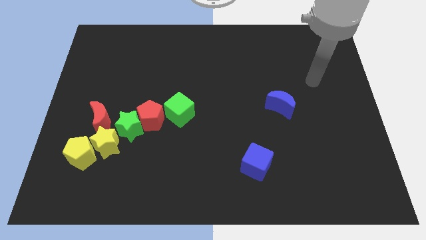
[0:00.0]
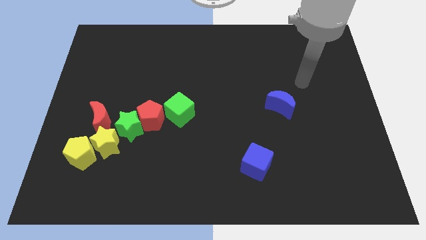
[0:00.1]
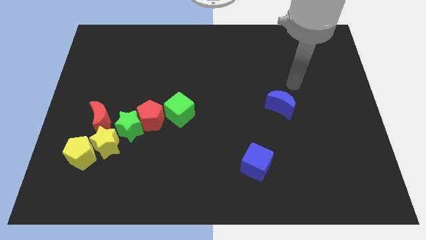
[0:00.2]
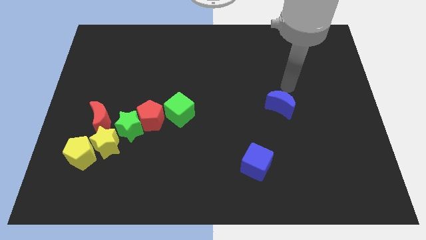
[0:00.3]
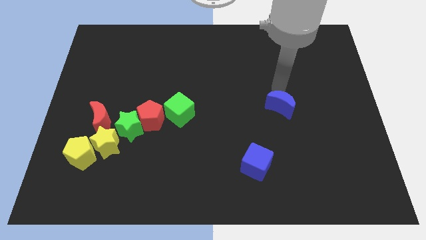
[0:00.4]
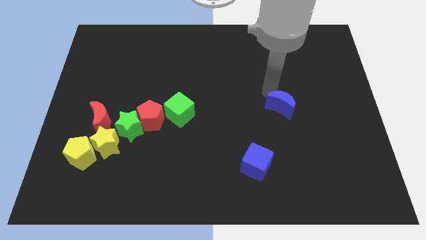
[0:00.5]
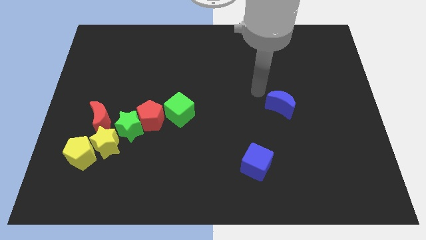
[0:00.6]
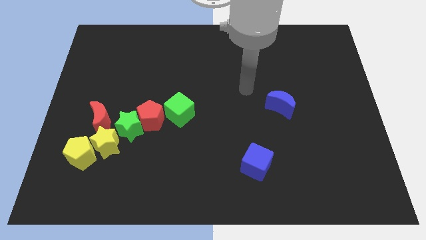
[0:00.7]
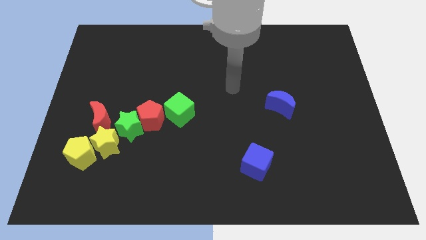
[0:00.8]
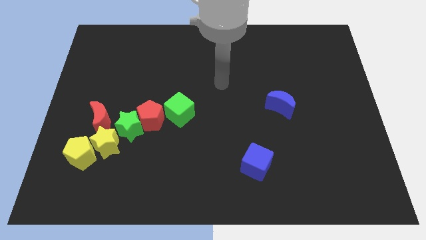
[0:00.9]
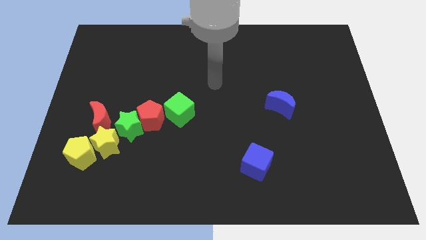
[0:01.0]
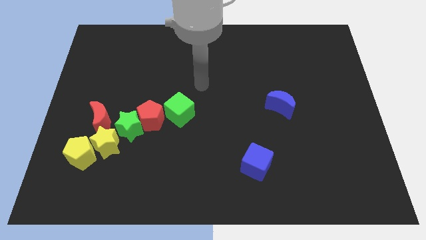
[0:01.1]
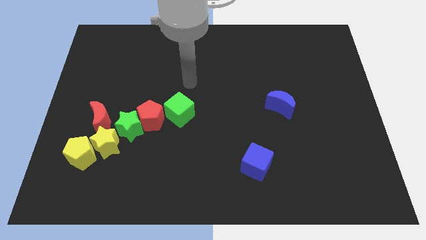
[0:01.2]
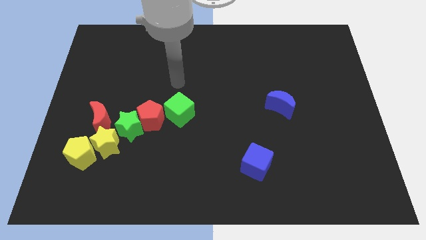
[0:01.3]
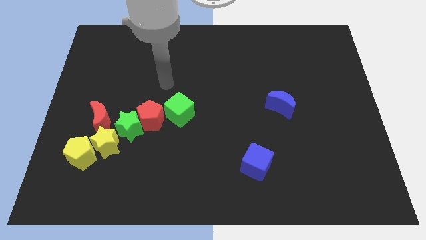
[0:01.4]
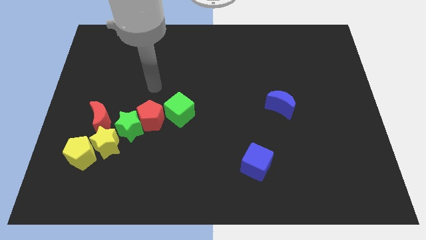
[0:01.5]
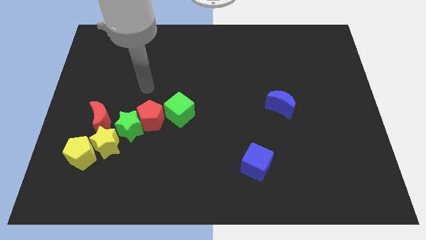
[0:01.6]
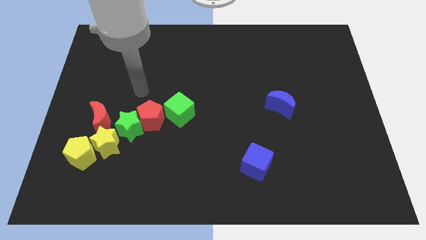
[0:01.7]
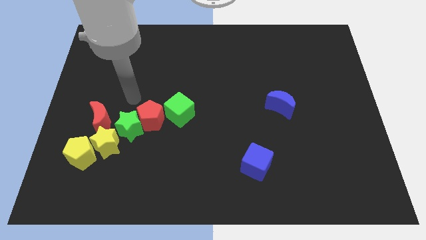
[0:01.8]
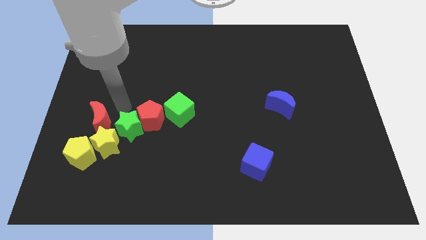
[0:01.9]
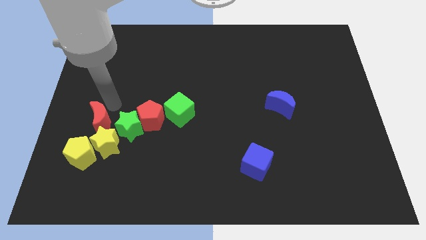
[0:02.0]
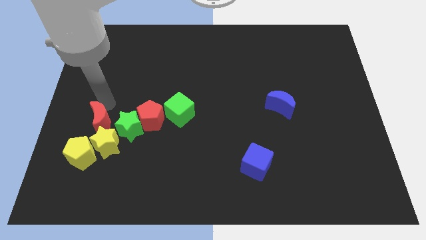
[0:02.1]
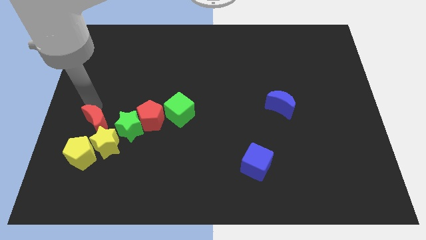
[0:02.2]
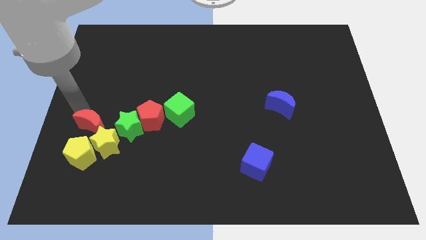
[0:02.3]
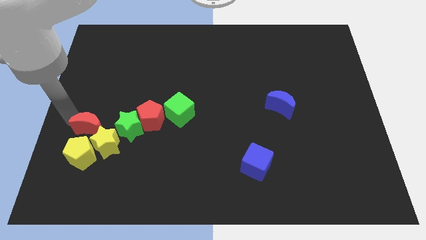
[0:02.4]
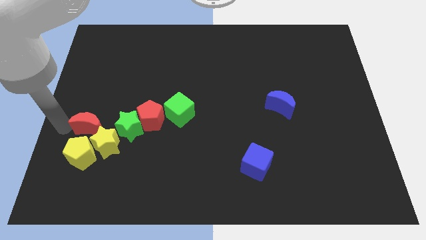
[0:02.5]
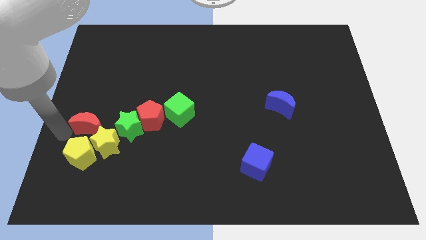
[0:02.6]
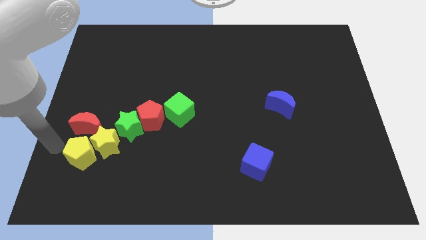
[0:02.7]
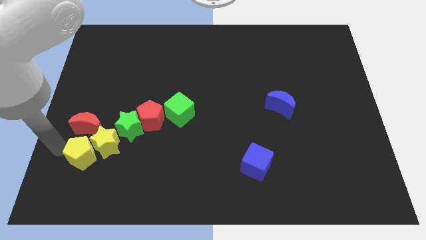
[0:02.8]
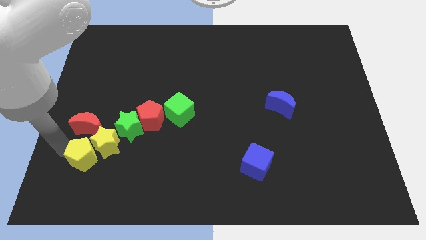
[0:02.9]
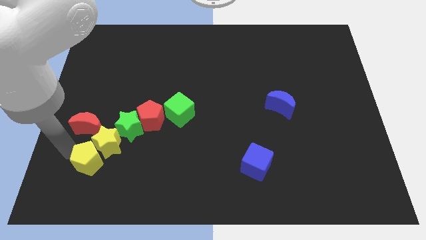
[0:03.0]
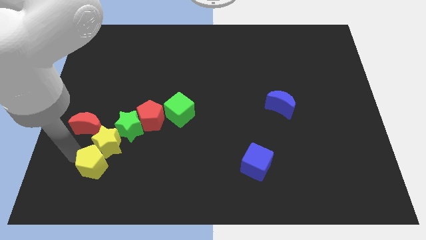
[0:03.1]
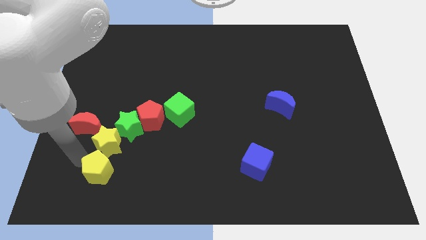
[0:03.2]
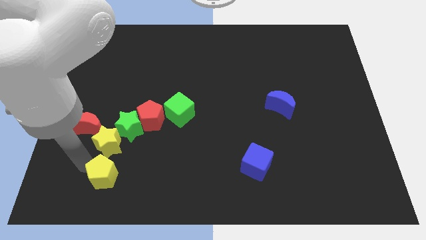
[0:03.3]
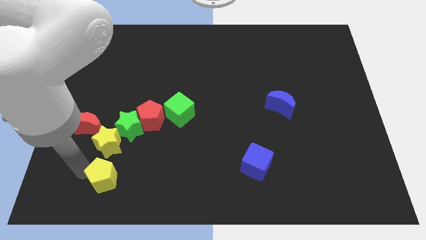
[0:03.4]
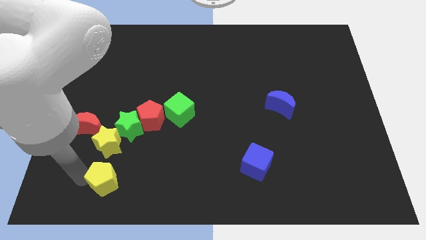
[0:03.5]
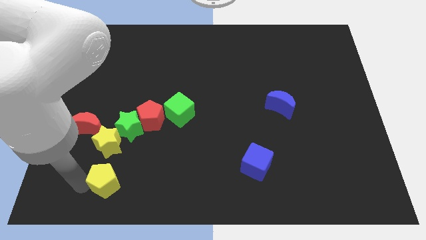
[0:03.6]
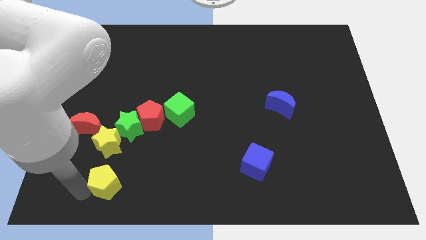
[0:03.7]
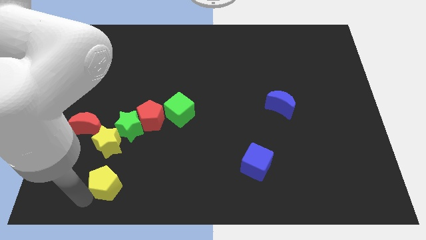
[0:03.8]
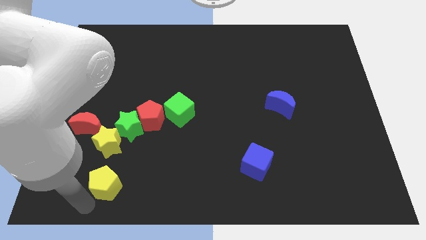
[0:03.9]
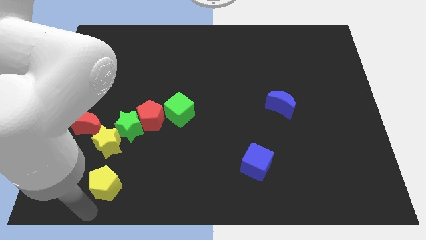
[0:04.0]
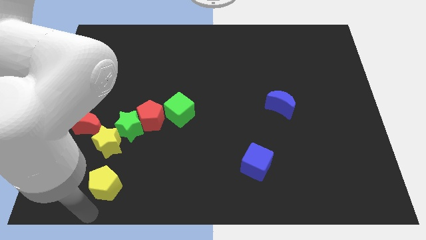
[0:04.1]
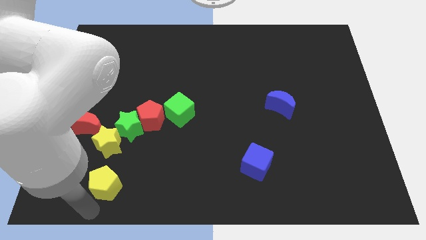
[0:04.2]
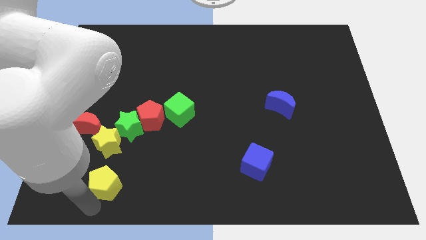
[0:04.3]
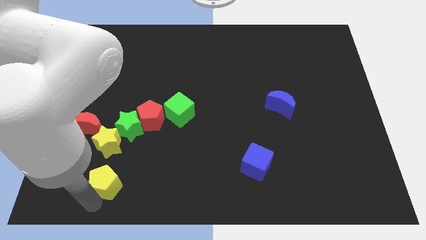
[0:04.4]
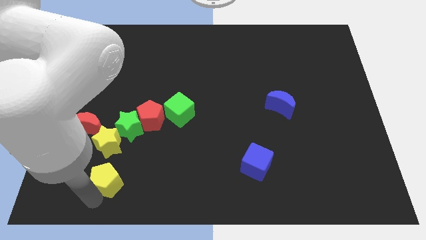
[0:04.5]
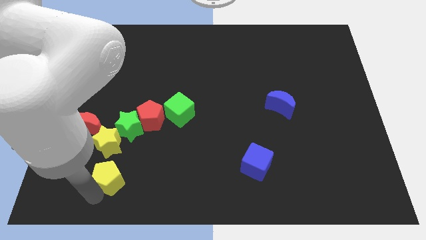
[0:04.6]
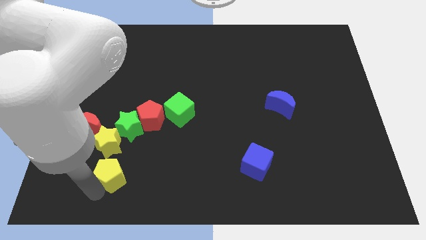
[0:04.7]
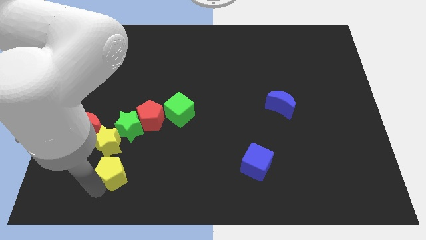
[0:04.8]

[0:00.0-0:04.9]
slide the yellow pentagon right a little

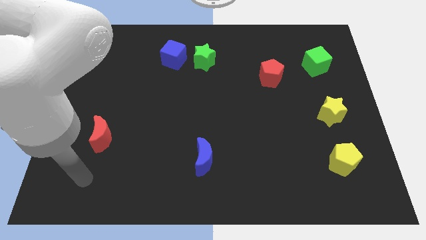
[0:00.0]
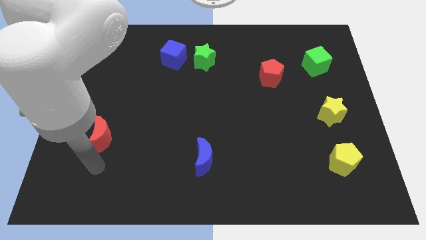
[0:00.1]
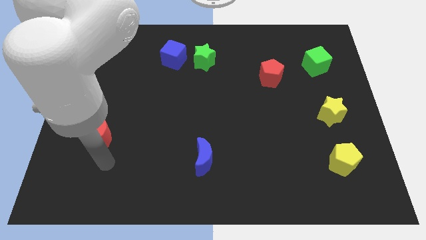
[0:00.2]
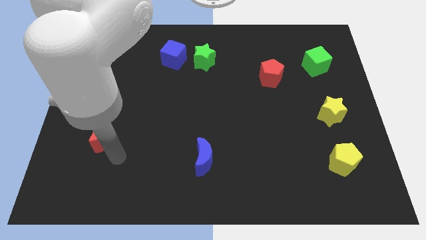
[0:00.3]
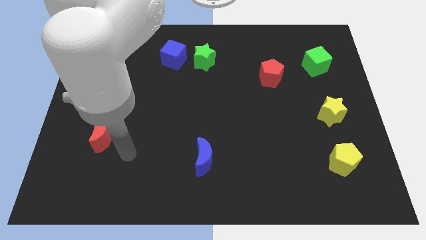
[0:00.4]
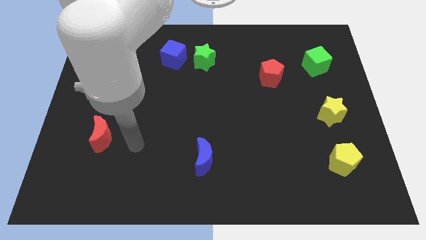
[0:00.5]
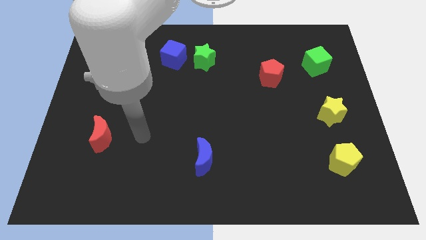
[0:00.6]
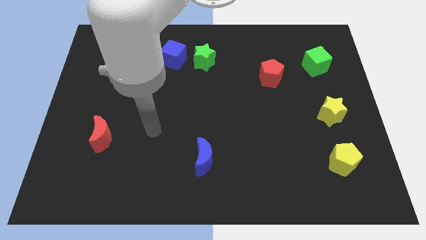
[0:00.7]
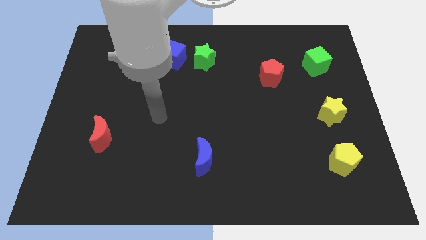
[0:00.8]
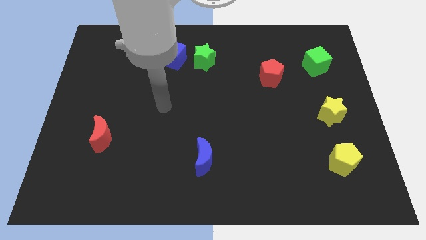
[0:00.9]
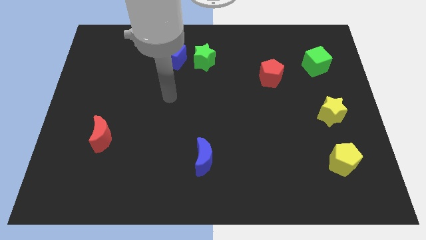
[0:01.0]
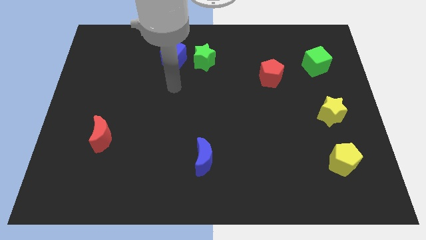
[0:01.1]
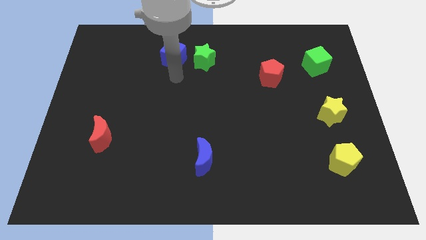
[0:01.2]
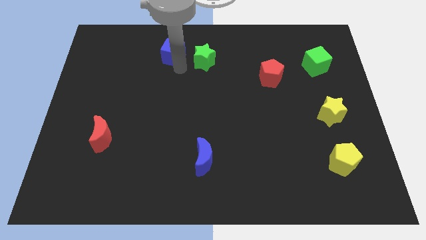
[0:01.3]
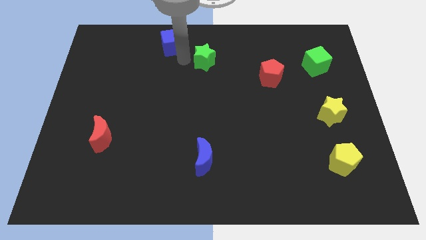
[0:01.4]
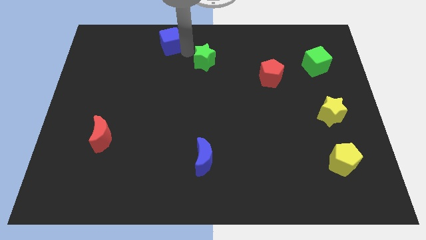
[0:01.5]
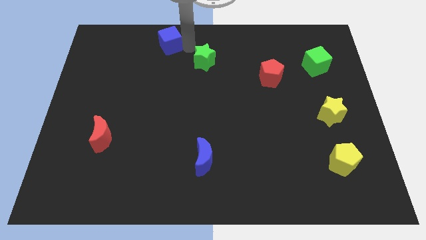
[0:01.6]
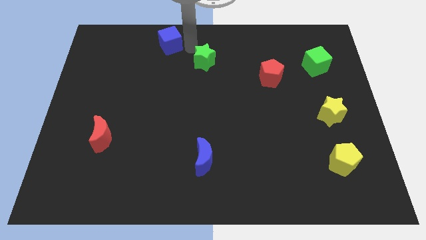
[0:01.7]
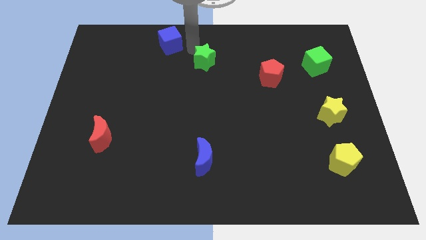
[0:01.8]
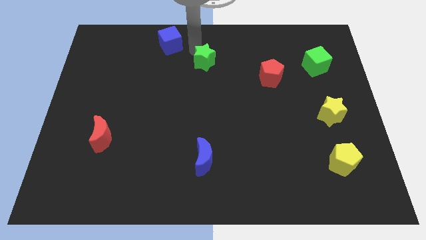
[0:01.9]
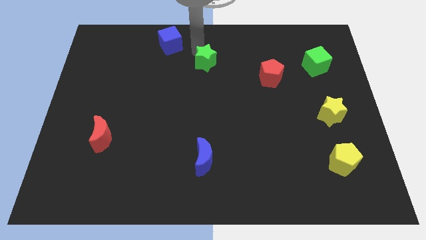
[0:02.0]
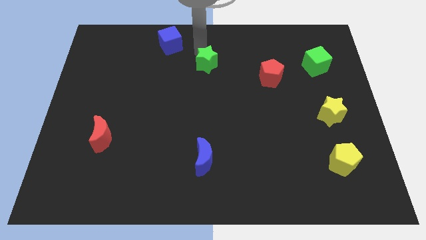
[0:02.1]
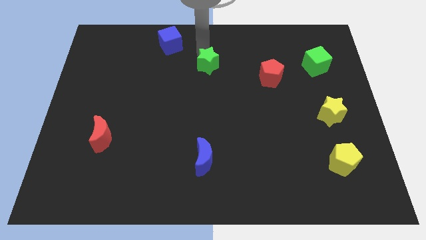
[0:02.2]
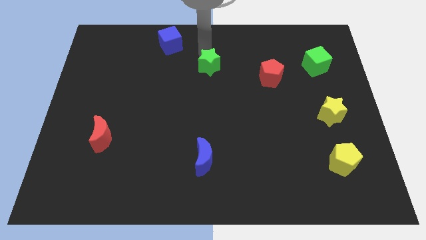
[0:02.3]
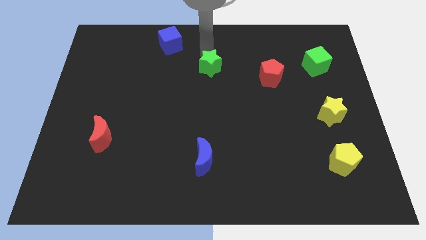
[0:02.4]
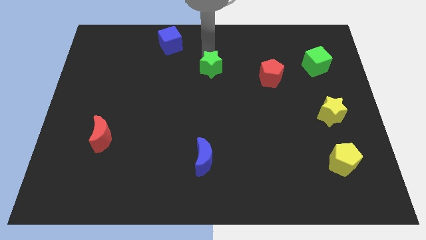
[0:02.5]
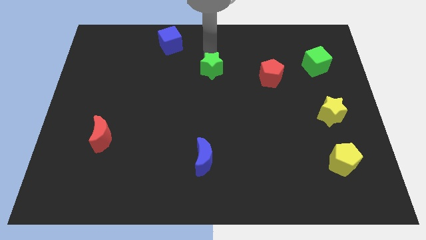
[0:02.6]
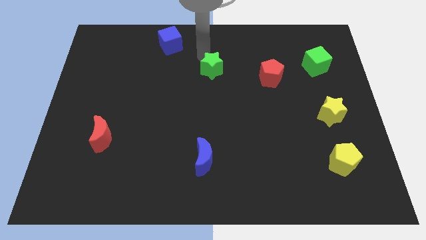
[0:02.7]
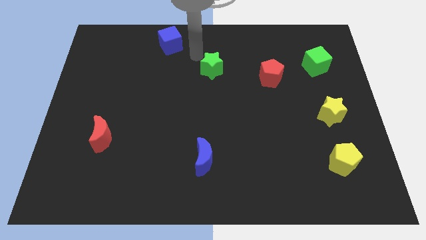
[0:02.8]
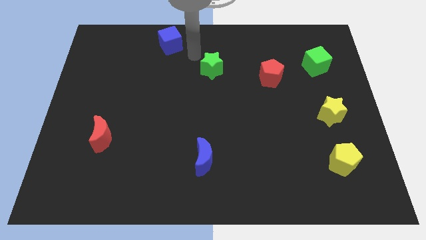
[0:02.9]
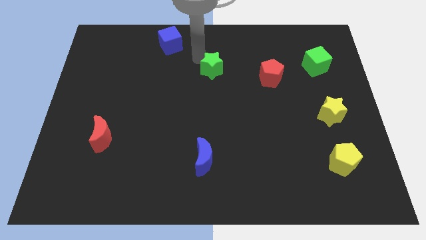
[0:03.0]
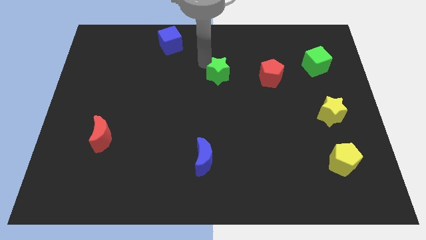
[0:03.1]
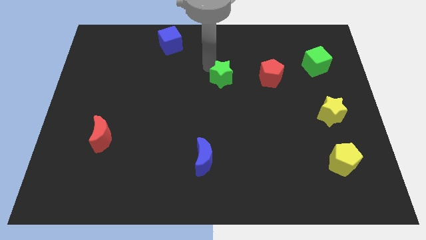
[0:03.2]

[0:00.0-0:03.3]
push the green star down and then to the right somewhat

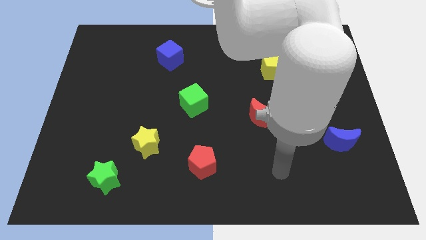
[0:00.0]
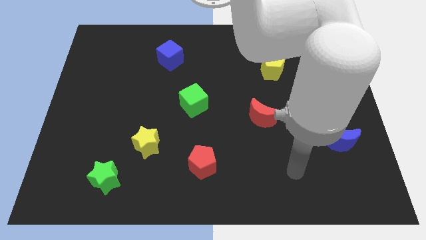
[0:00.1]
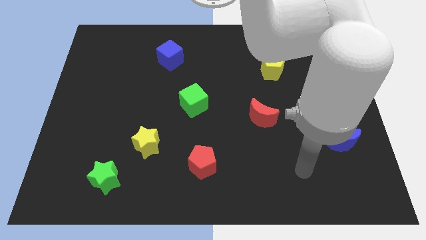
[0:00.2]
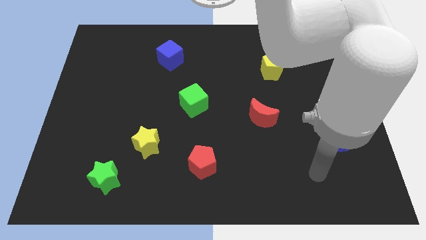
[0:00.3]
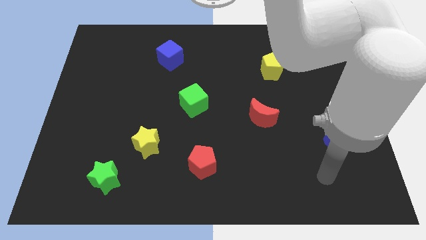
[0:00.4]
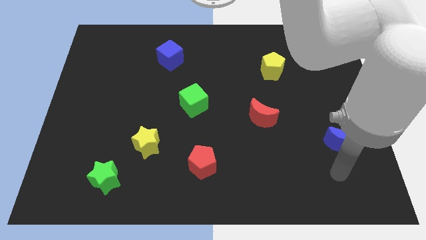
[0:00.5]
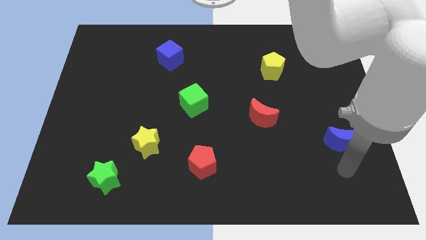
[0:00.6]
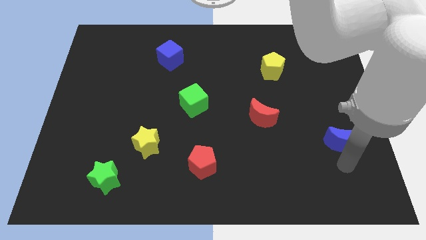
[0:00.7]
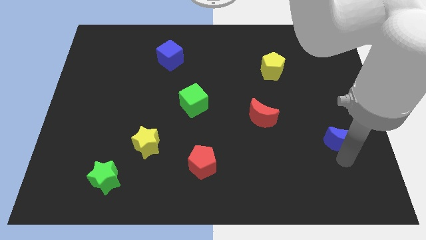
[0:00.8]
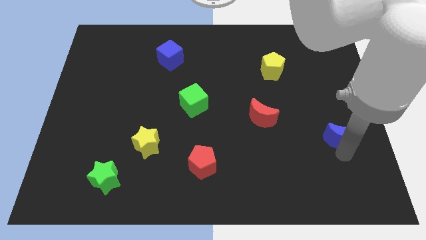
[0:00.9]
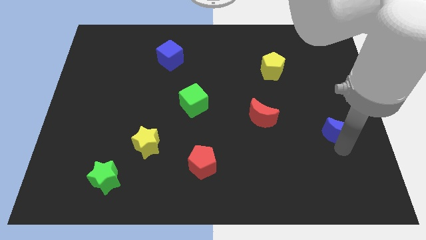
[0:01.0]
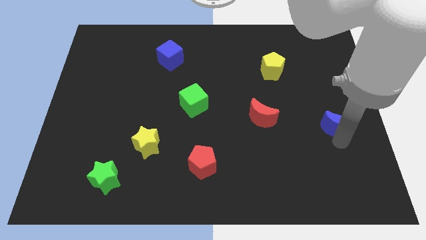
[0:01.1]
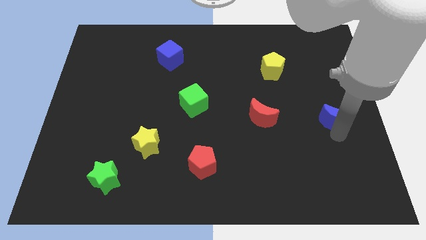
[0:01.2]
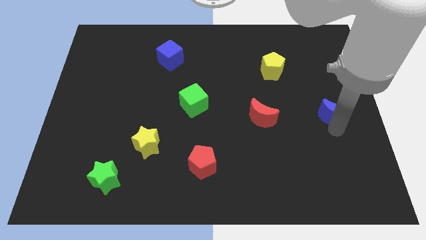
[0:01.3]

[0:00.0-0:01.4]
slightly move the blue moon upwards
